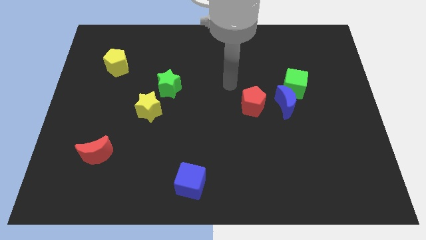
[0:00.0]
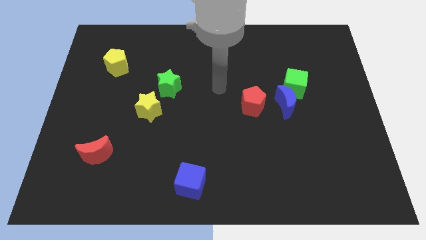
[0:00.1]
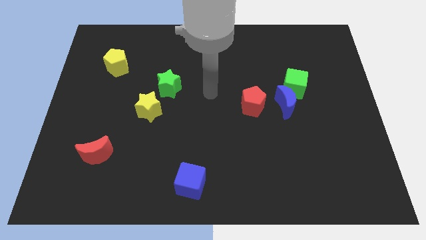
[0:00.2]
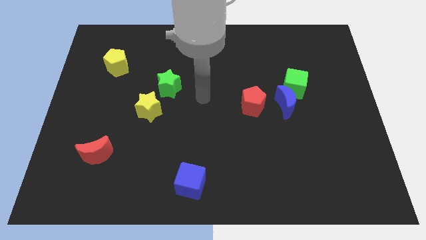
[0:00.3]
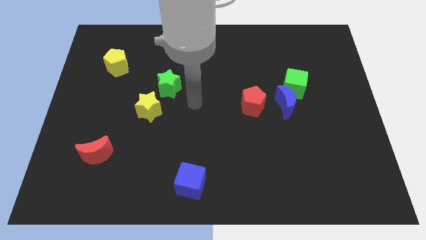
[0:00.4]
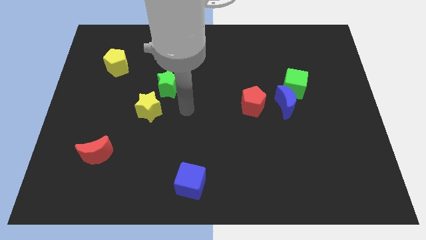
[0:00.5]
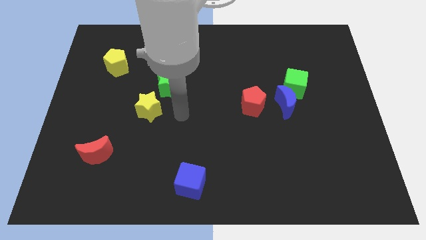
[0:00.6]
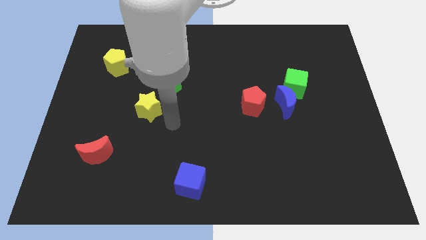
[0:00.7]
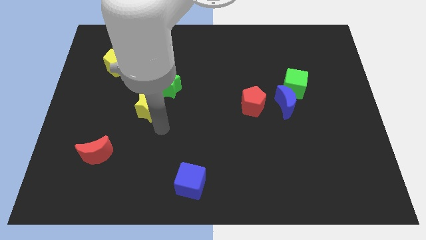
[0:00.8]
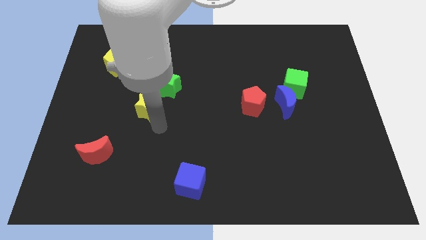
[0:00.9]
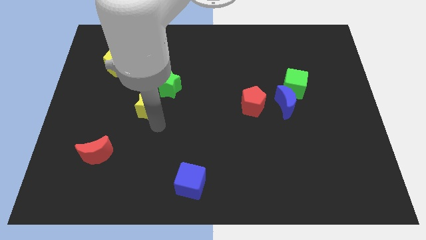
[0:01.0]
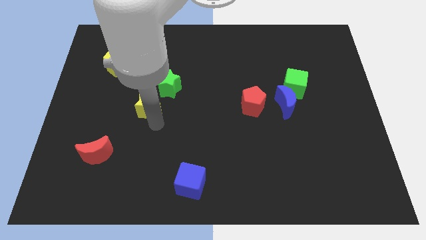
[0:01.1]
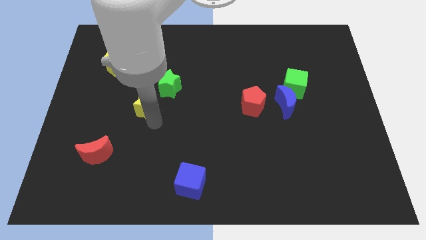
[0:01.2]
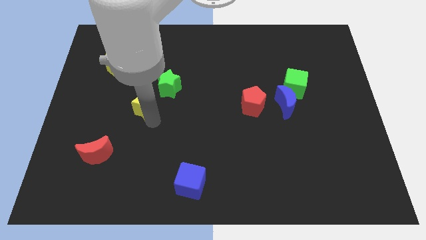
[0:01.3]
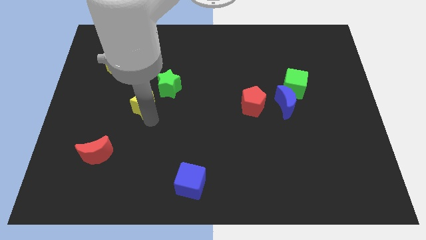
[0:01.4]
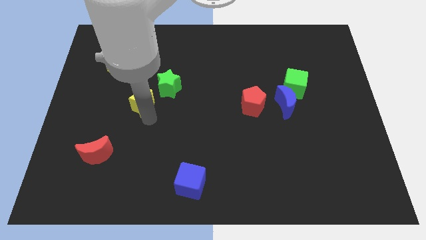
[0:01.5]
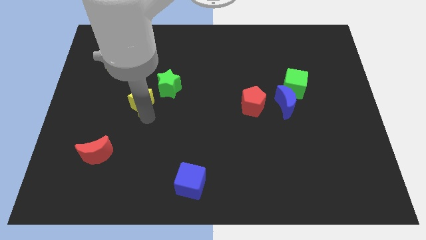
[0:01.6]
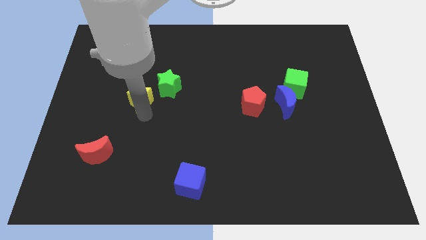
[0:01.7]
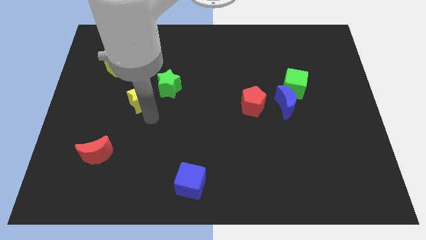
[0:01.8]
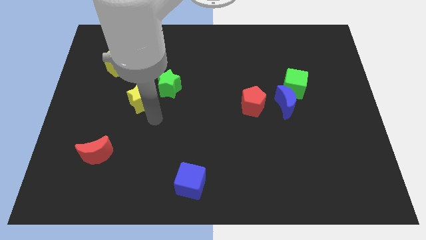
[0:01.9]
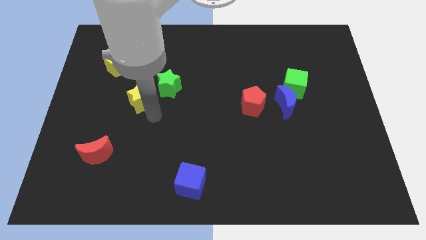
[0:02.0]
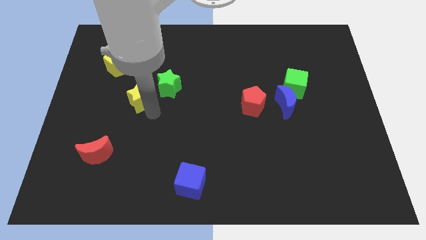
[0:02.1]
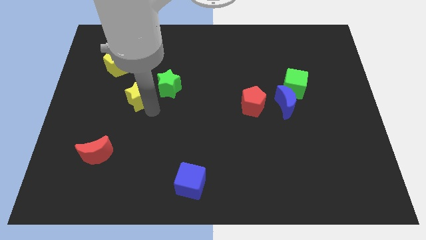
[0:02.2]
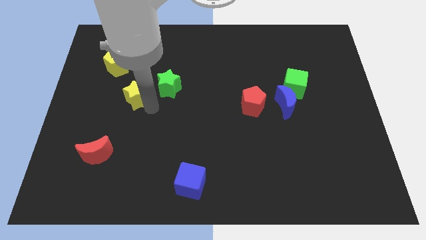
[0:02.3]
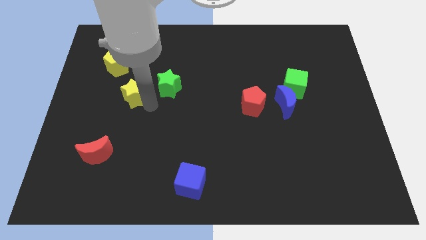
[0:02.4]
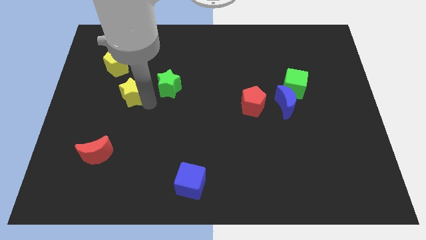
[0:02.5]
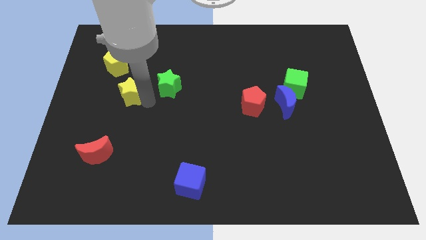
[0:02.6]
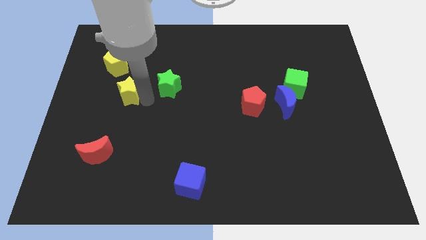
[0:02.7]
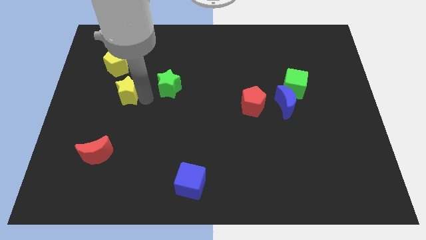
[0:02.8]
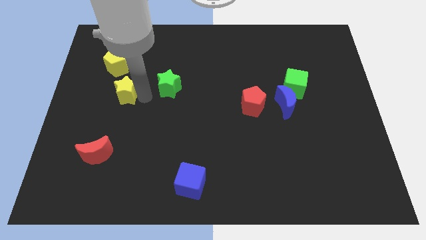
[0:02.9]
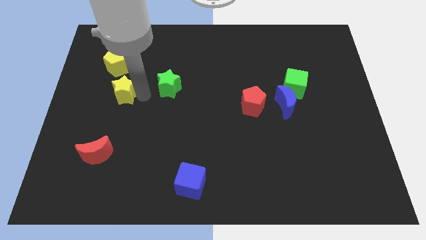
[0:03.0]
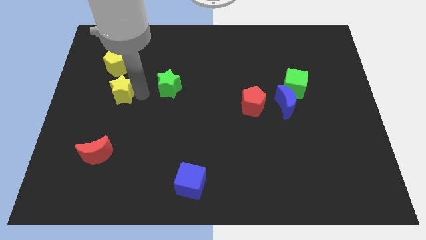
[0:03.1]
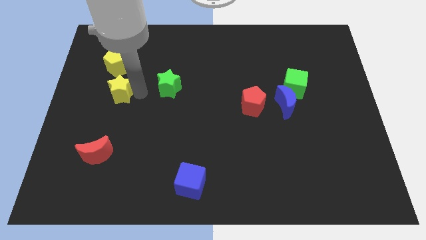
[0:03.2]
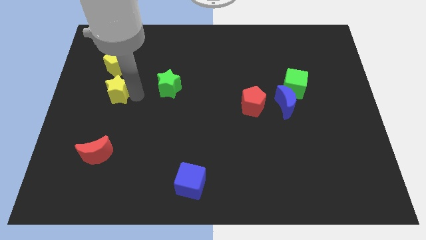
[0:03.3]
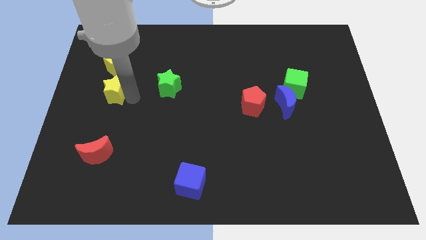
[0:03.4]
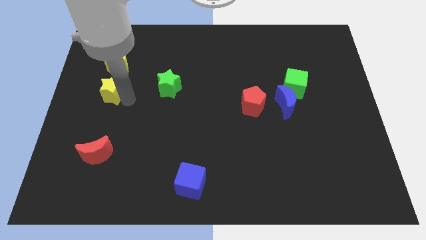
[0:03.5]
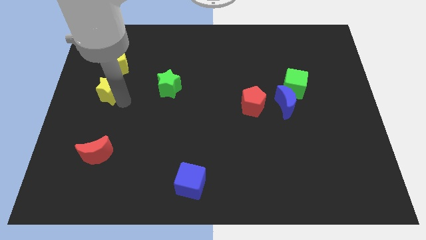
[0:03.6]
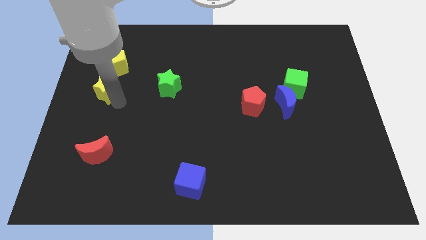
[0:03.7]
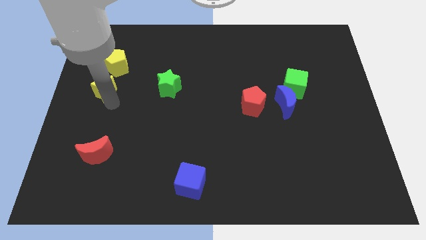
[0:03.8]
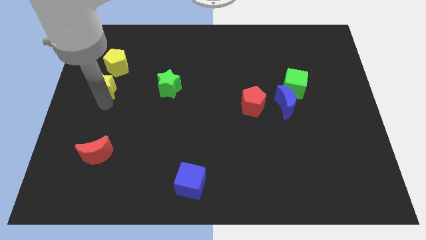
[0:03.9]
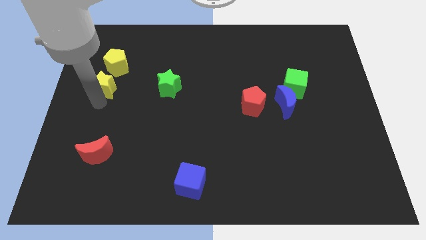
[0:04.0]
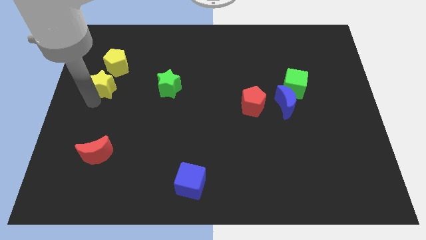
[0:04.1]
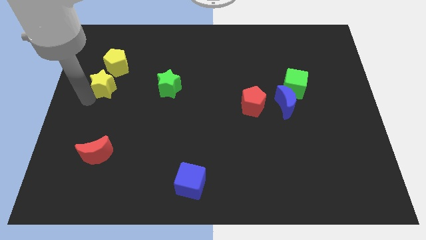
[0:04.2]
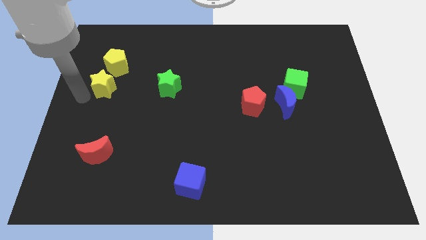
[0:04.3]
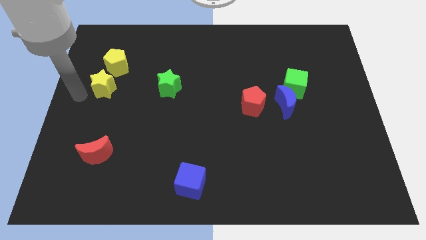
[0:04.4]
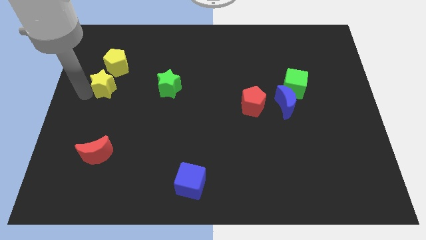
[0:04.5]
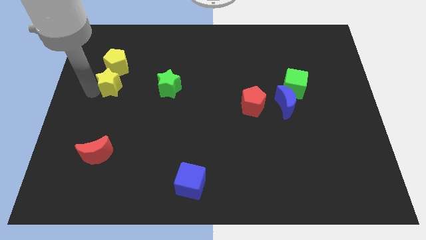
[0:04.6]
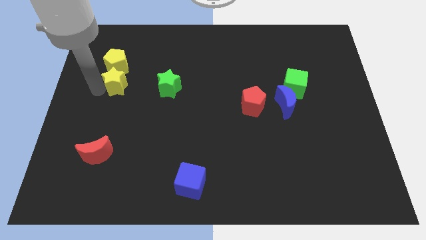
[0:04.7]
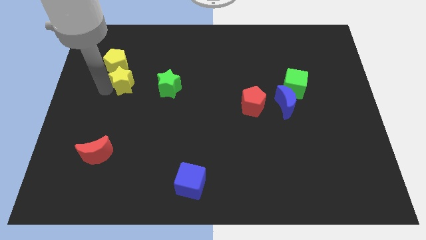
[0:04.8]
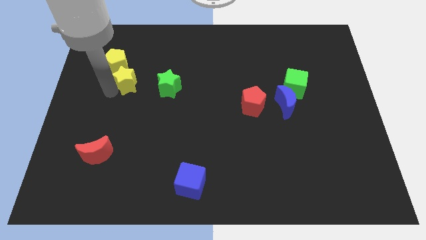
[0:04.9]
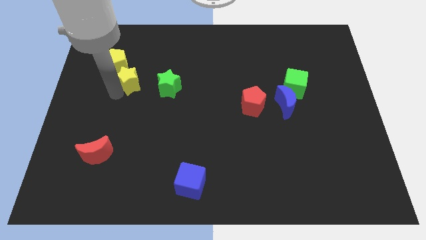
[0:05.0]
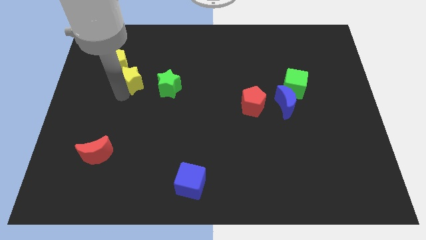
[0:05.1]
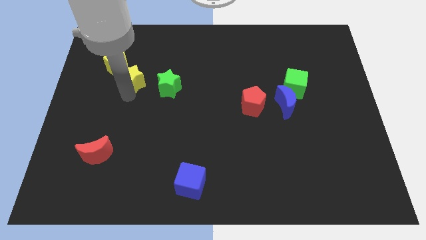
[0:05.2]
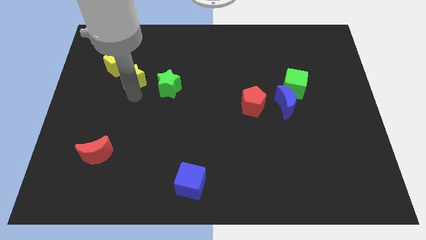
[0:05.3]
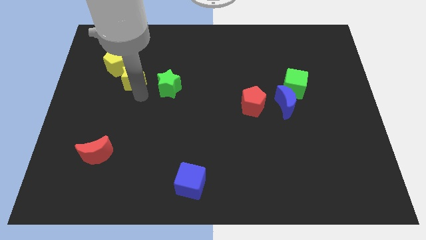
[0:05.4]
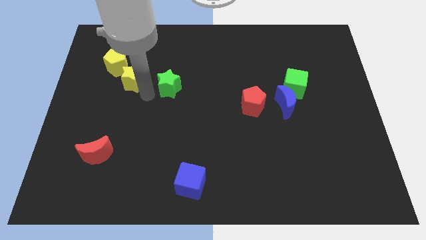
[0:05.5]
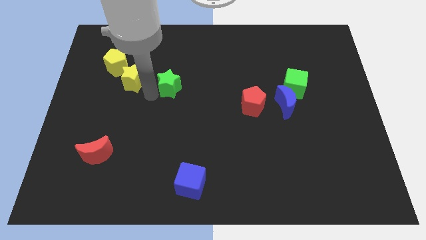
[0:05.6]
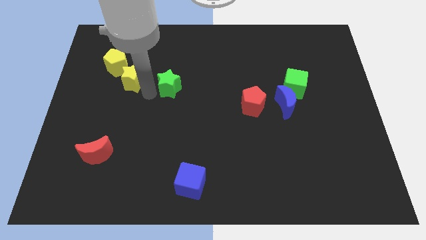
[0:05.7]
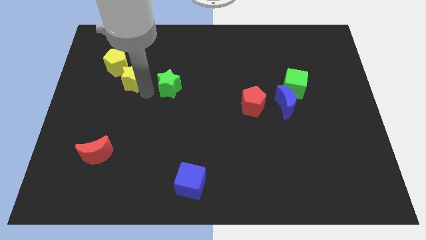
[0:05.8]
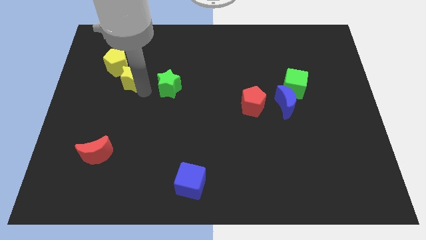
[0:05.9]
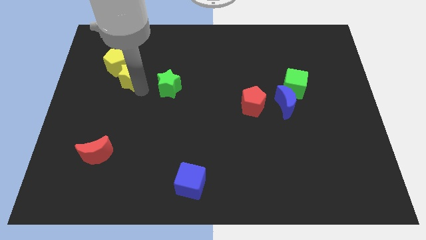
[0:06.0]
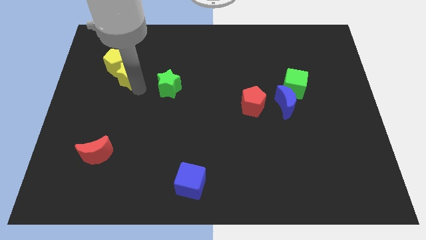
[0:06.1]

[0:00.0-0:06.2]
put the yellow star next to the yellow pentagon

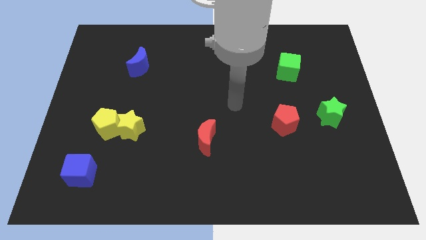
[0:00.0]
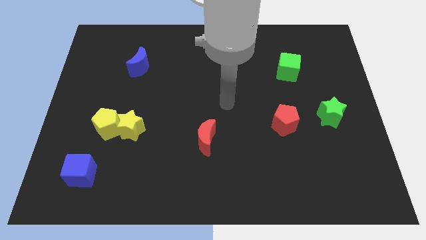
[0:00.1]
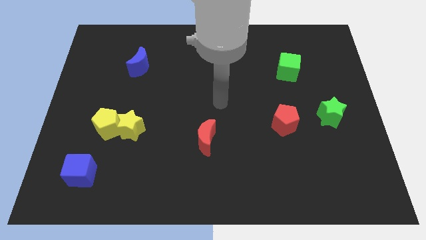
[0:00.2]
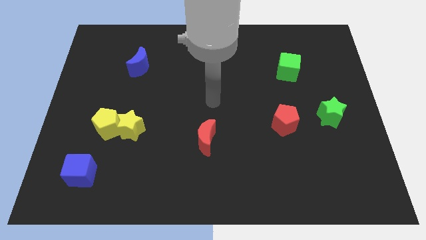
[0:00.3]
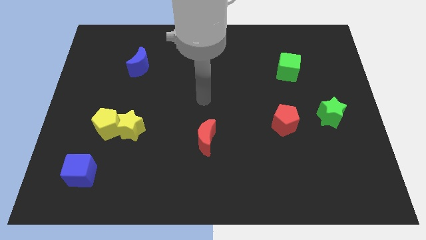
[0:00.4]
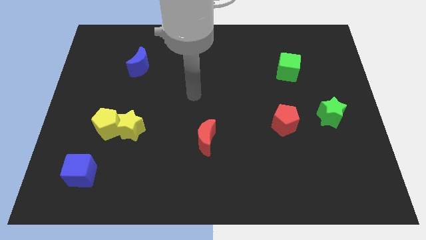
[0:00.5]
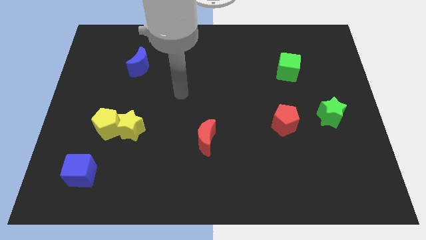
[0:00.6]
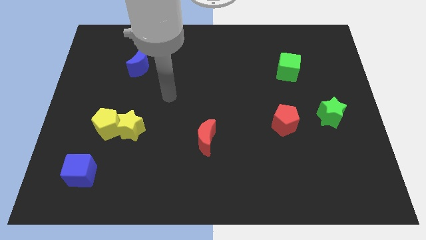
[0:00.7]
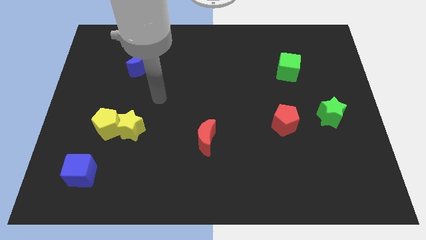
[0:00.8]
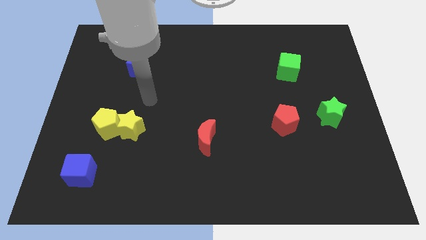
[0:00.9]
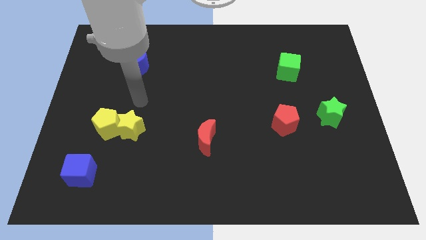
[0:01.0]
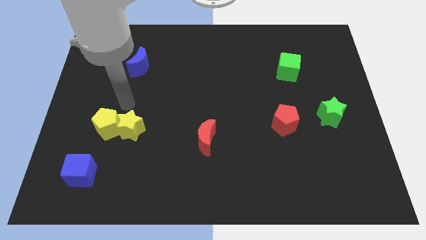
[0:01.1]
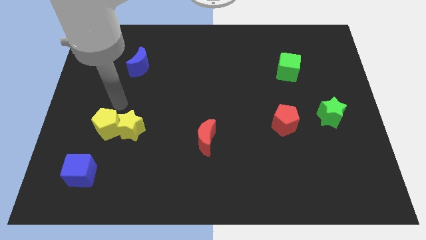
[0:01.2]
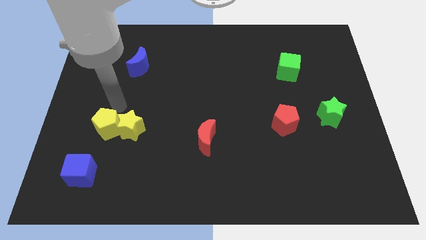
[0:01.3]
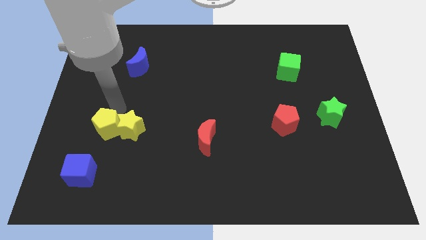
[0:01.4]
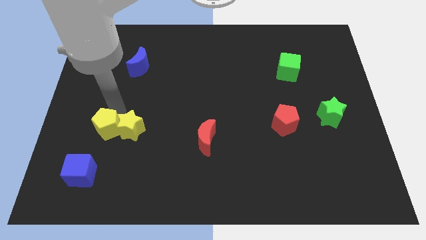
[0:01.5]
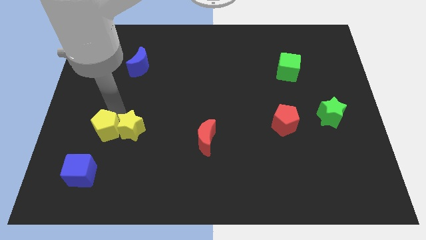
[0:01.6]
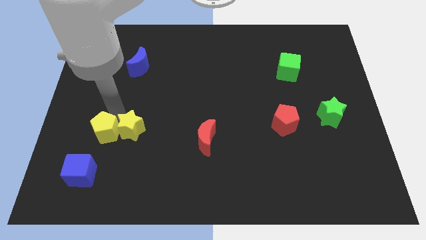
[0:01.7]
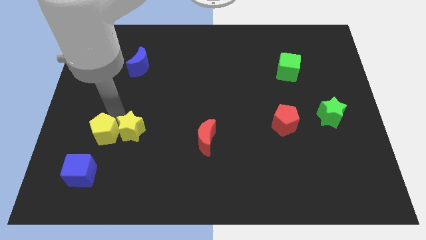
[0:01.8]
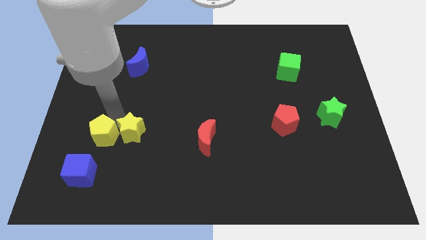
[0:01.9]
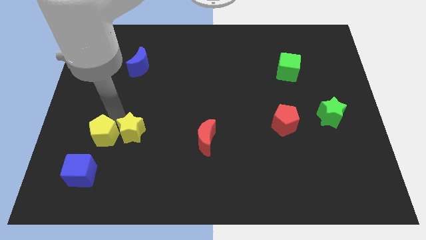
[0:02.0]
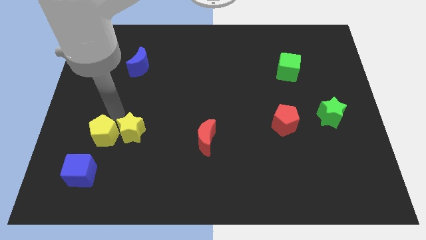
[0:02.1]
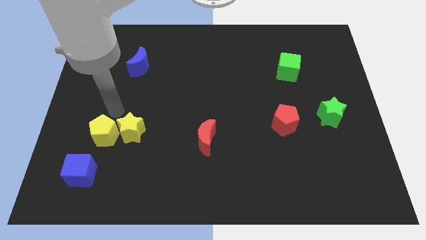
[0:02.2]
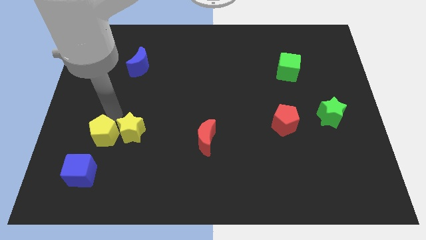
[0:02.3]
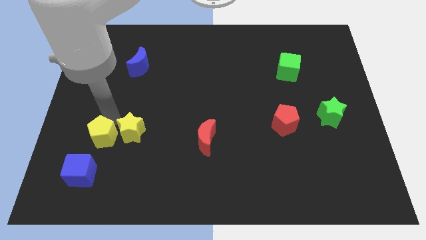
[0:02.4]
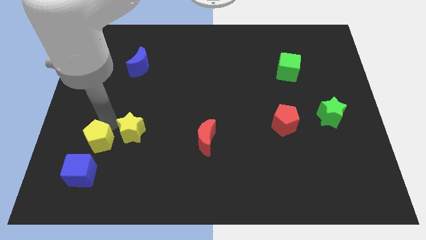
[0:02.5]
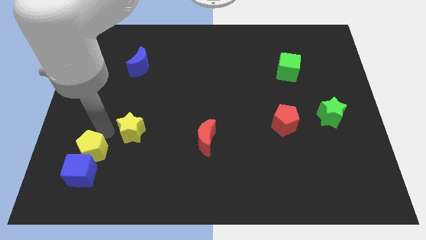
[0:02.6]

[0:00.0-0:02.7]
put the yellow pentagon towards the blue cube
